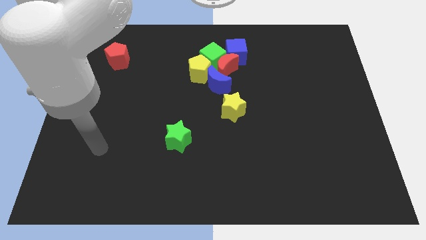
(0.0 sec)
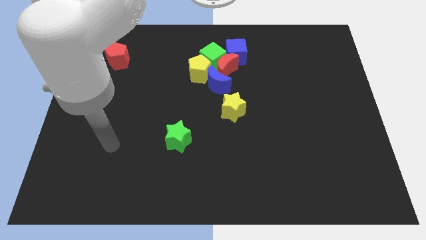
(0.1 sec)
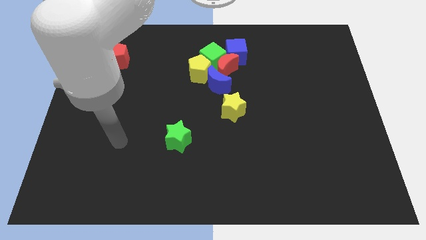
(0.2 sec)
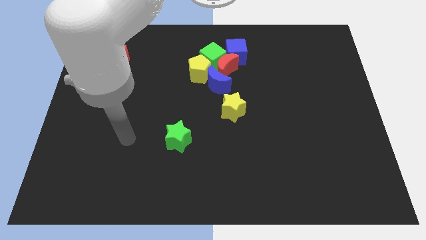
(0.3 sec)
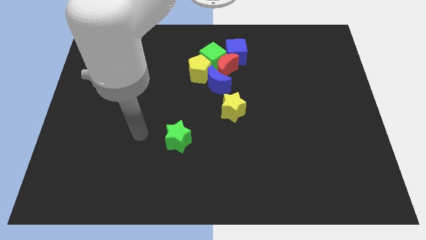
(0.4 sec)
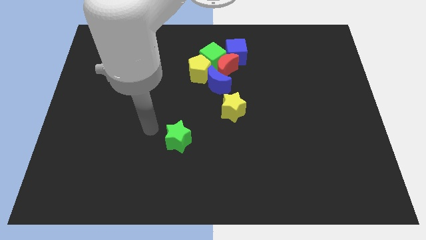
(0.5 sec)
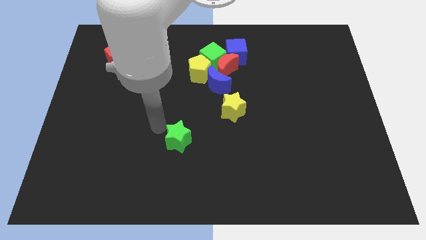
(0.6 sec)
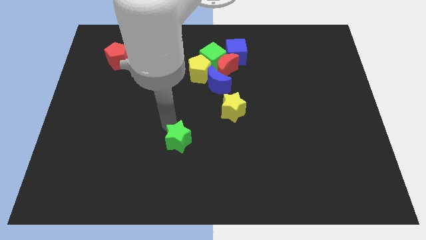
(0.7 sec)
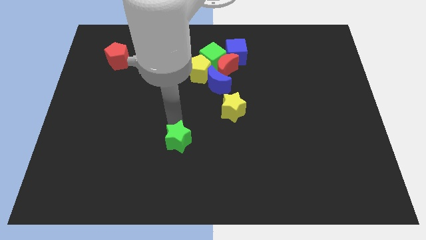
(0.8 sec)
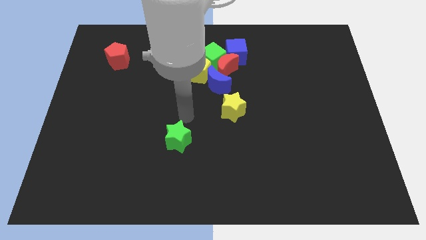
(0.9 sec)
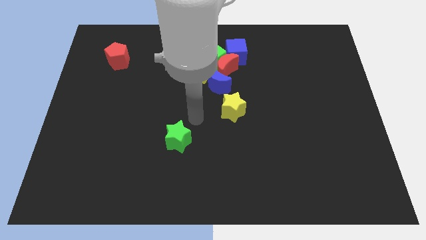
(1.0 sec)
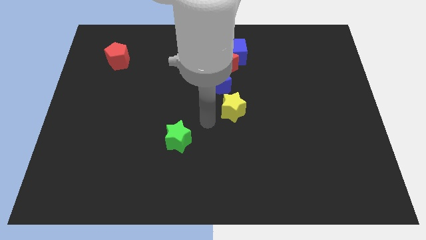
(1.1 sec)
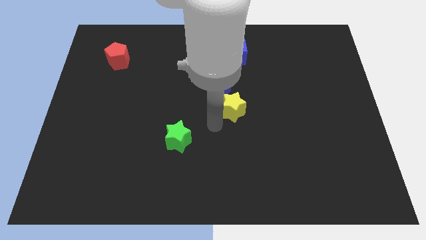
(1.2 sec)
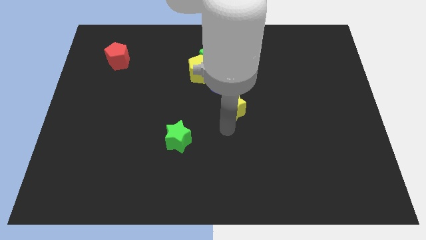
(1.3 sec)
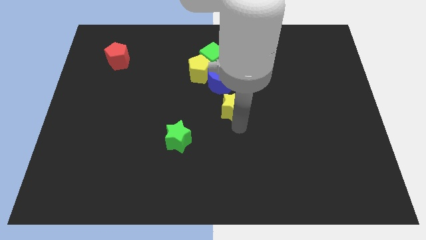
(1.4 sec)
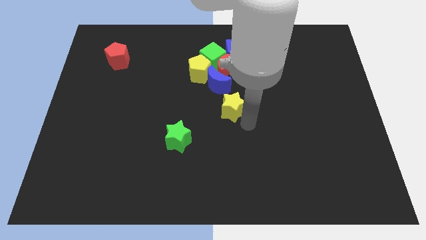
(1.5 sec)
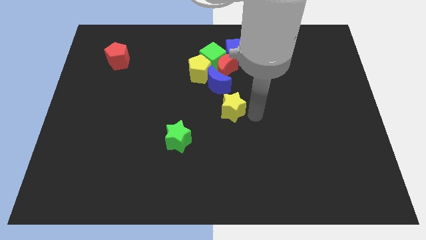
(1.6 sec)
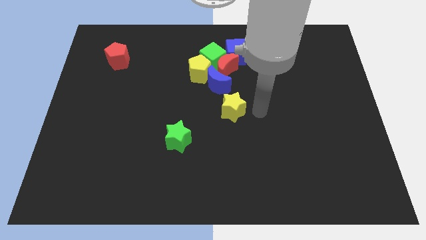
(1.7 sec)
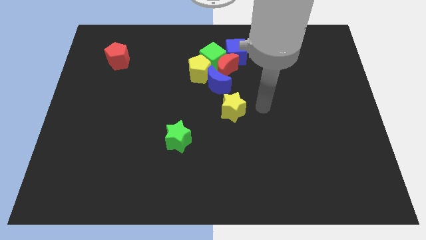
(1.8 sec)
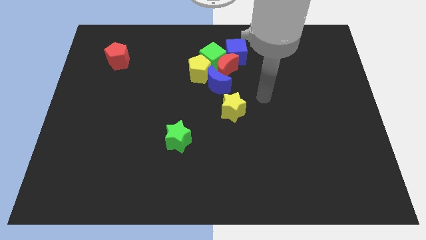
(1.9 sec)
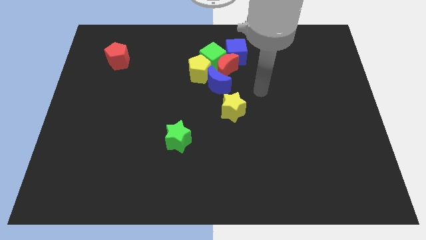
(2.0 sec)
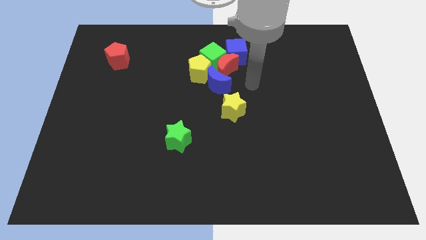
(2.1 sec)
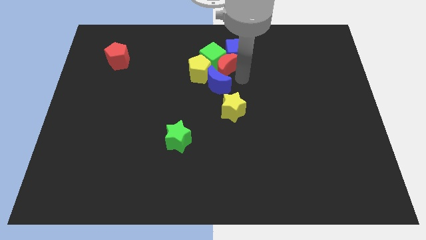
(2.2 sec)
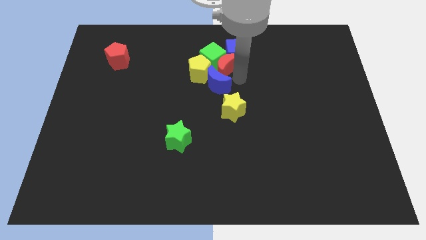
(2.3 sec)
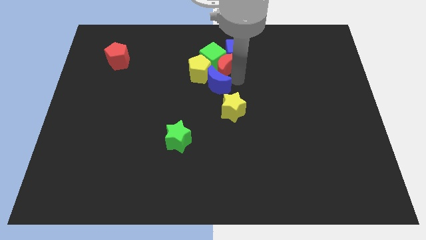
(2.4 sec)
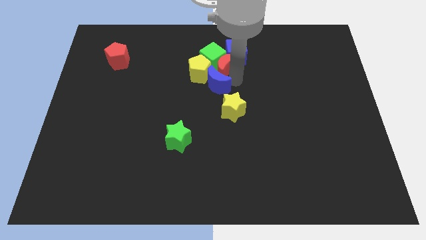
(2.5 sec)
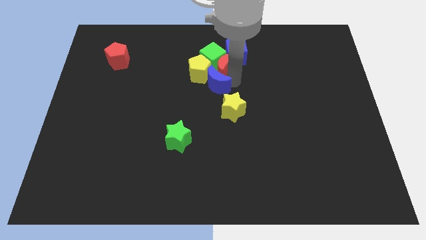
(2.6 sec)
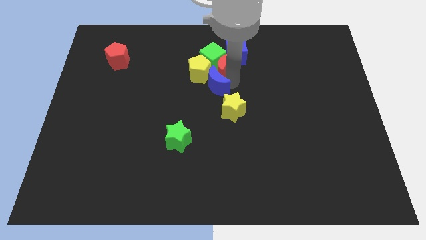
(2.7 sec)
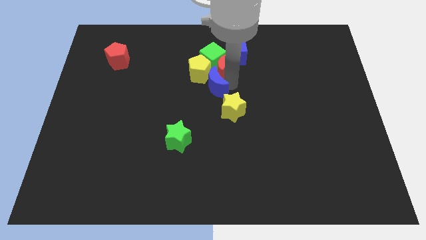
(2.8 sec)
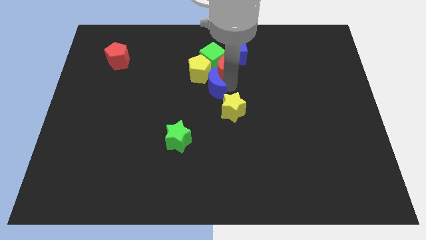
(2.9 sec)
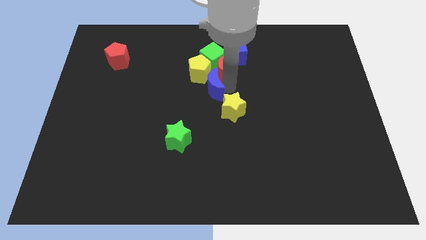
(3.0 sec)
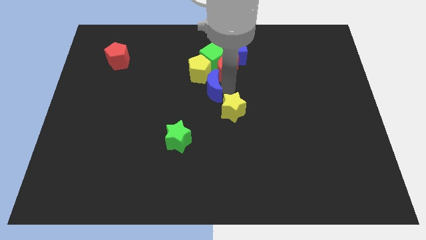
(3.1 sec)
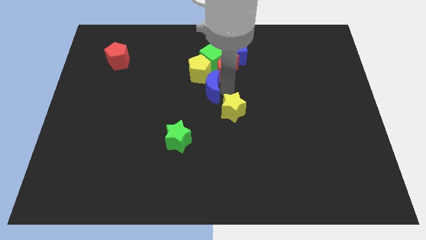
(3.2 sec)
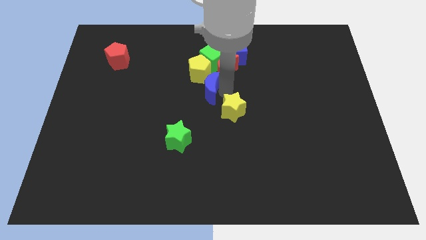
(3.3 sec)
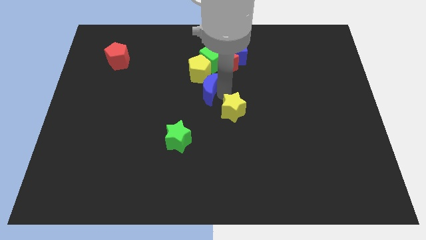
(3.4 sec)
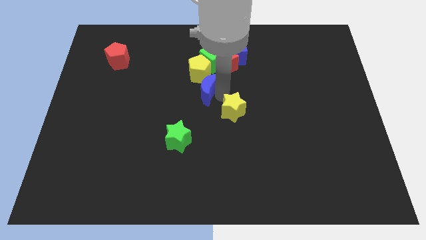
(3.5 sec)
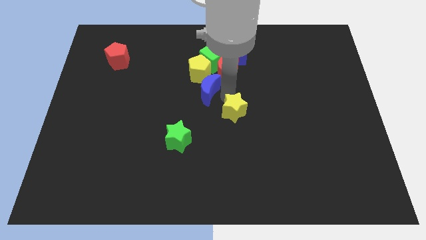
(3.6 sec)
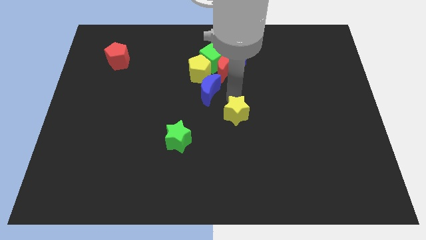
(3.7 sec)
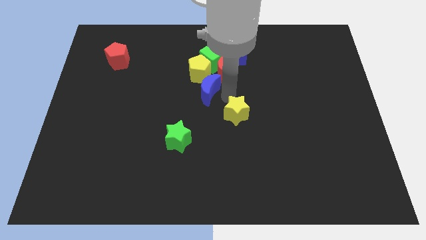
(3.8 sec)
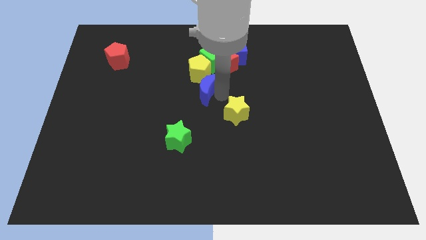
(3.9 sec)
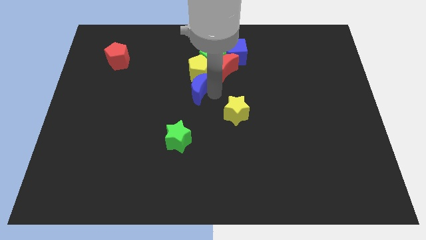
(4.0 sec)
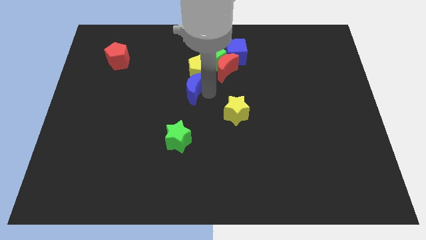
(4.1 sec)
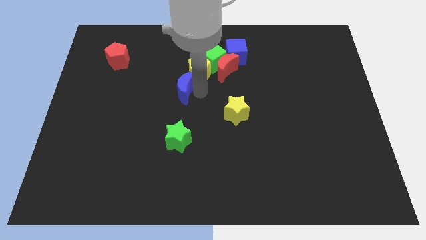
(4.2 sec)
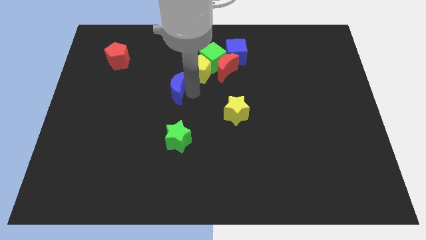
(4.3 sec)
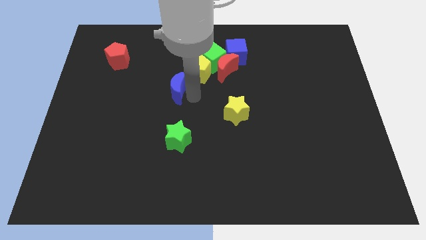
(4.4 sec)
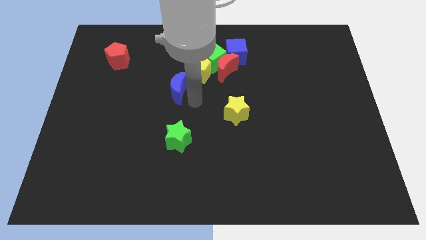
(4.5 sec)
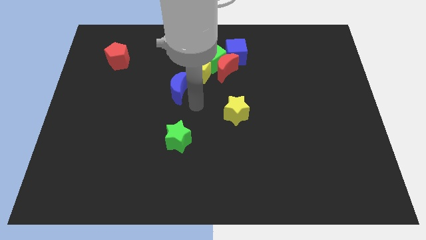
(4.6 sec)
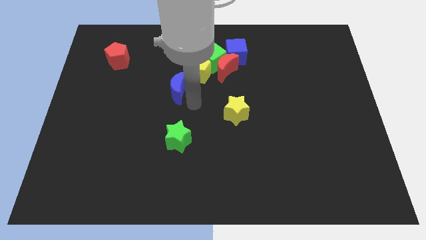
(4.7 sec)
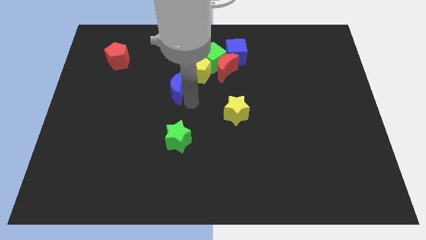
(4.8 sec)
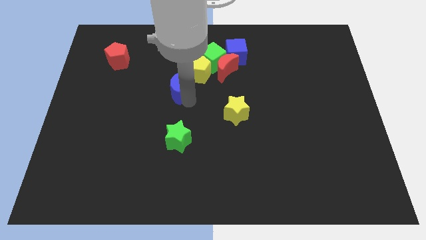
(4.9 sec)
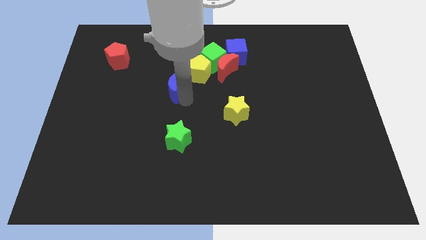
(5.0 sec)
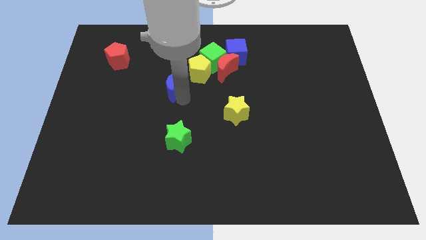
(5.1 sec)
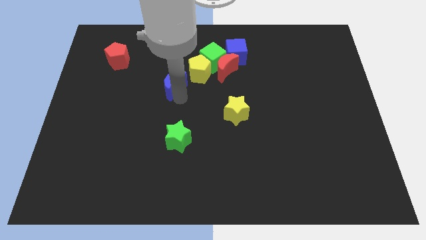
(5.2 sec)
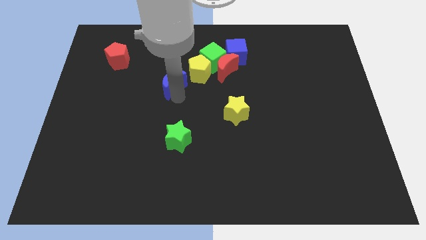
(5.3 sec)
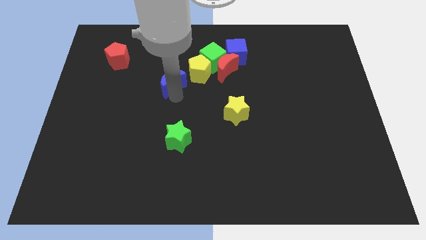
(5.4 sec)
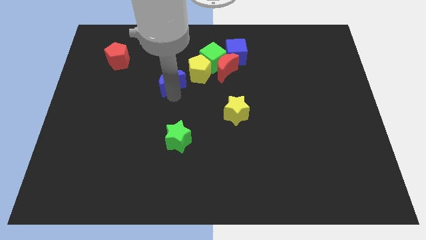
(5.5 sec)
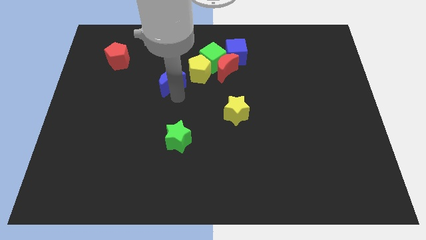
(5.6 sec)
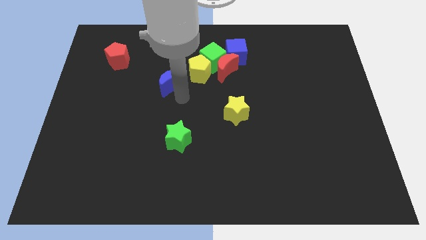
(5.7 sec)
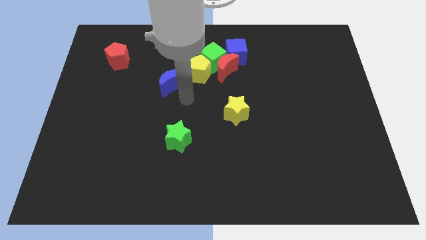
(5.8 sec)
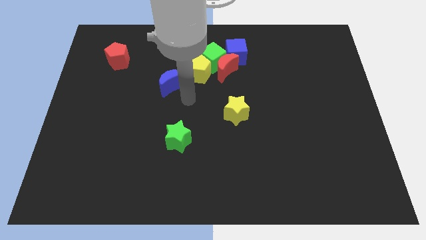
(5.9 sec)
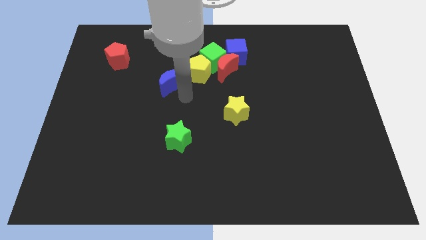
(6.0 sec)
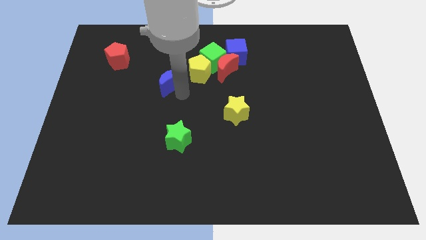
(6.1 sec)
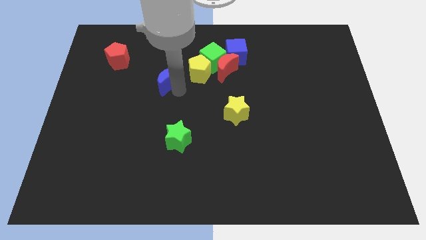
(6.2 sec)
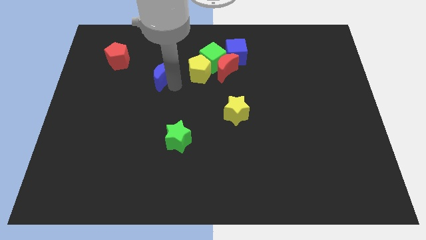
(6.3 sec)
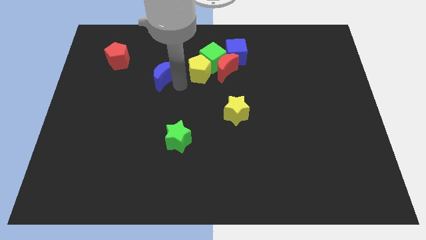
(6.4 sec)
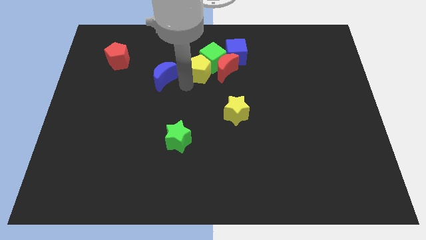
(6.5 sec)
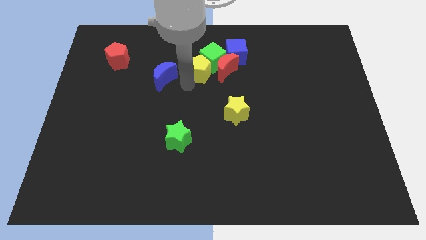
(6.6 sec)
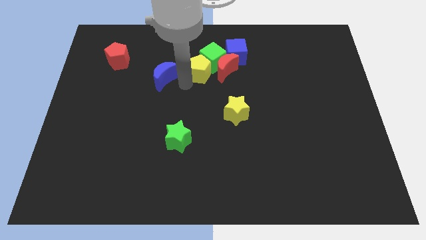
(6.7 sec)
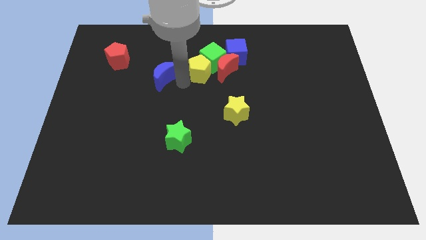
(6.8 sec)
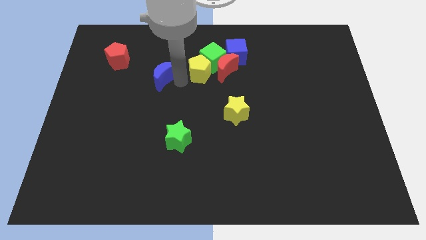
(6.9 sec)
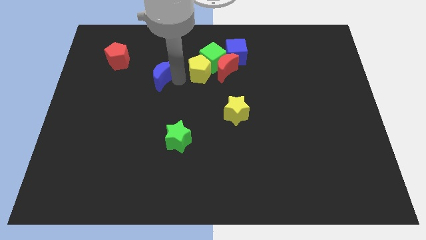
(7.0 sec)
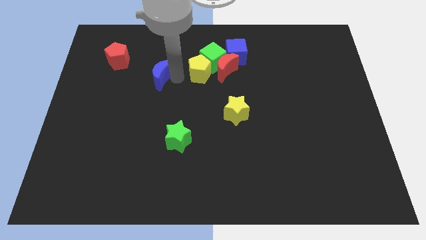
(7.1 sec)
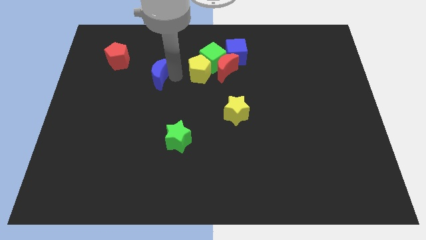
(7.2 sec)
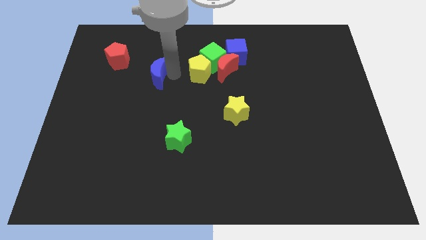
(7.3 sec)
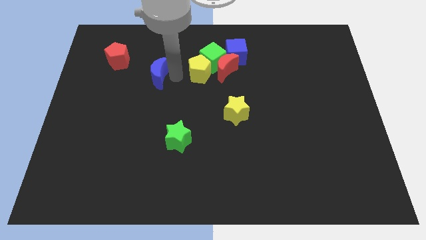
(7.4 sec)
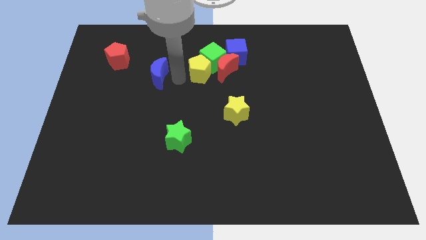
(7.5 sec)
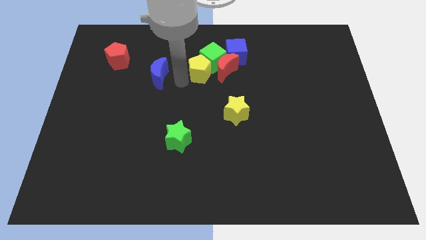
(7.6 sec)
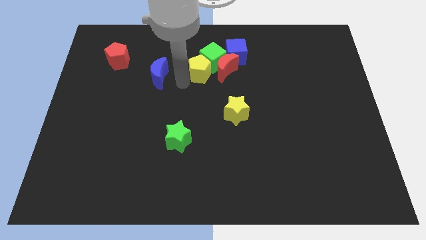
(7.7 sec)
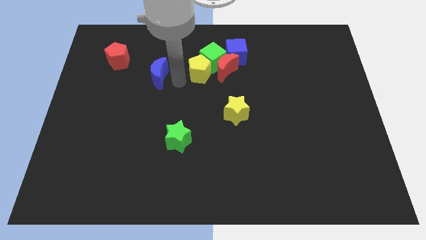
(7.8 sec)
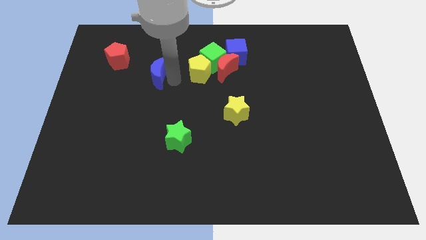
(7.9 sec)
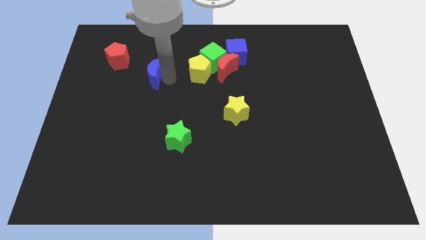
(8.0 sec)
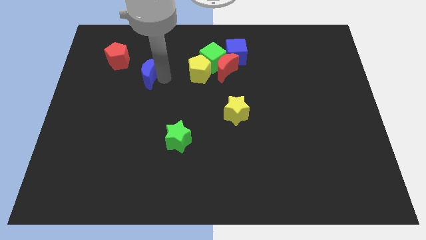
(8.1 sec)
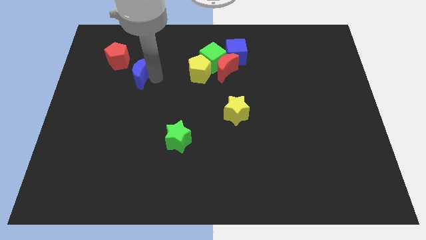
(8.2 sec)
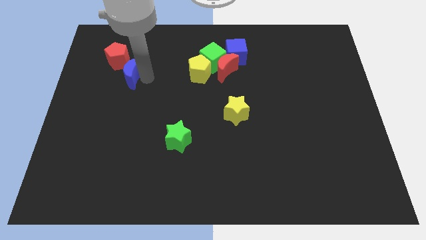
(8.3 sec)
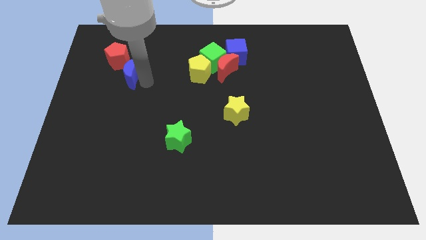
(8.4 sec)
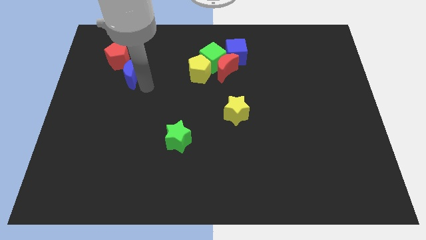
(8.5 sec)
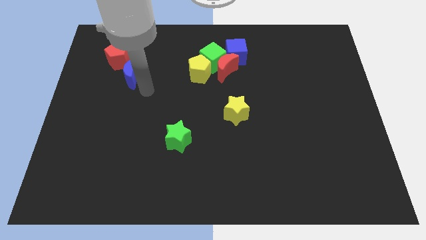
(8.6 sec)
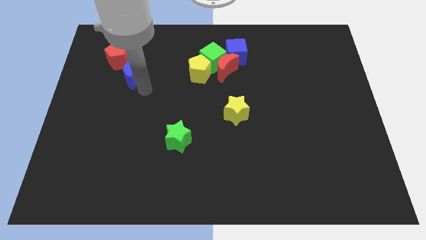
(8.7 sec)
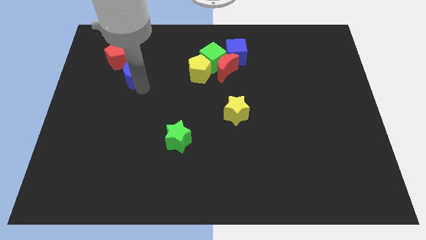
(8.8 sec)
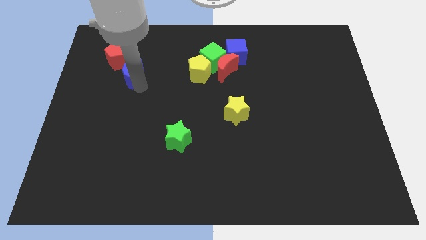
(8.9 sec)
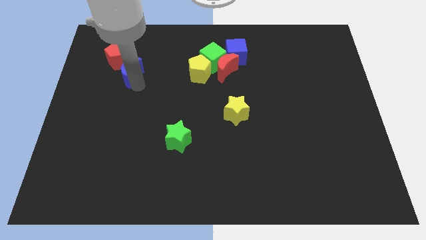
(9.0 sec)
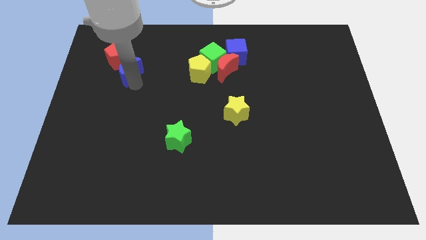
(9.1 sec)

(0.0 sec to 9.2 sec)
put the blue moon towards the red pentagon
